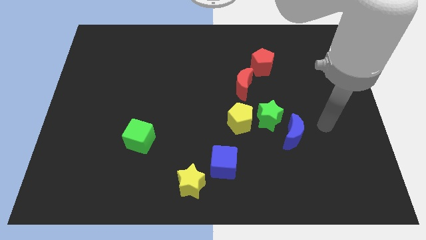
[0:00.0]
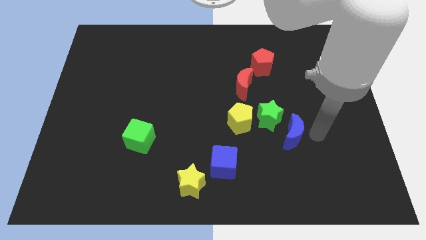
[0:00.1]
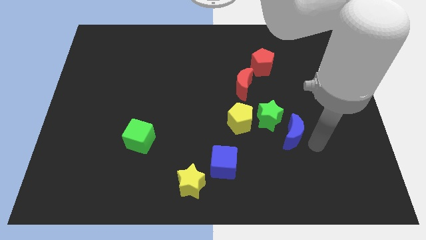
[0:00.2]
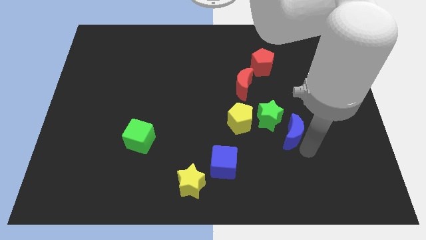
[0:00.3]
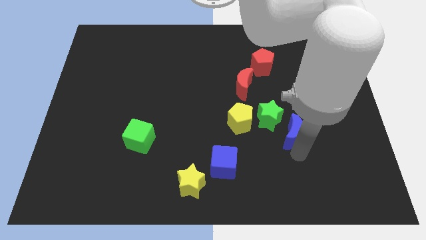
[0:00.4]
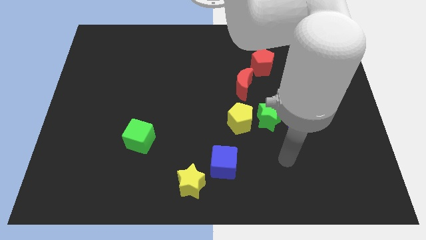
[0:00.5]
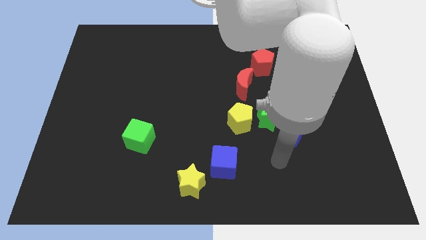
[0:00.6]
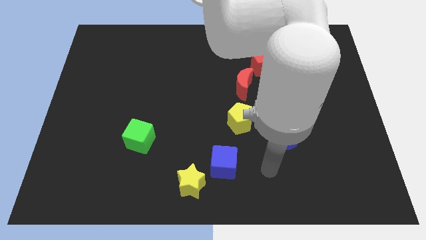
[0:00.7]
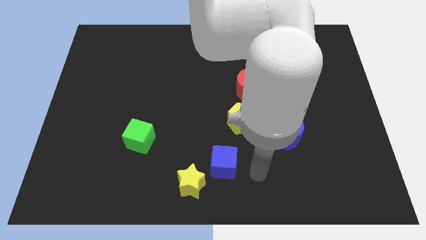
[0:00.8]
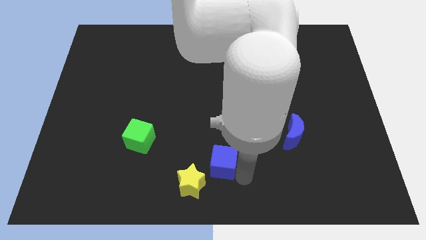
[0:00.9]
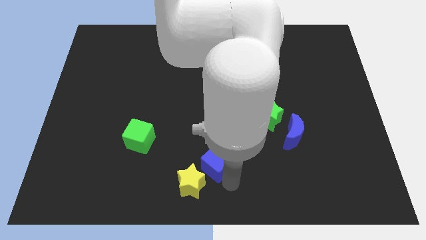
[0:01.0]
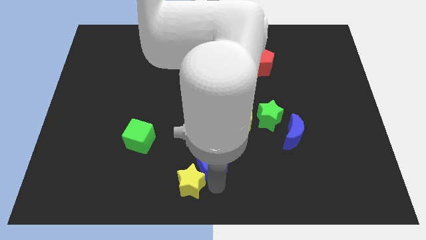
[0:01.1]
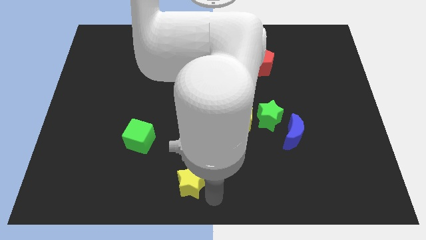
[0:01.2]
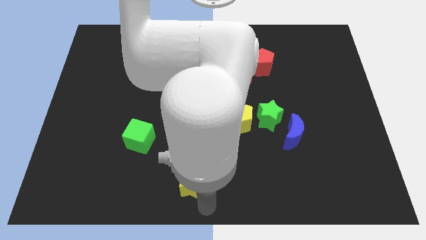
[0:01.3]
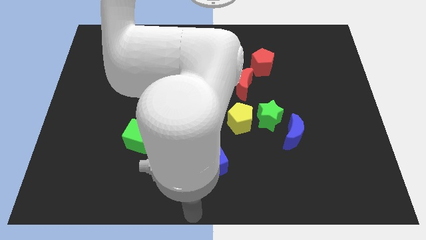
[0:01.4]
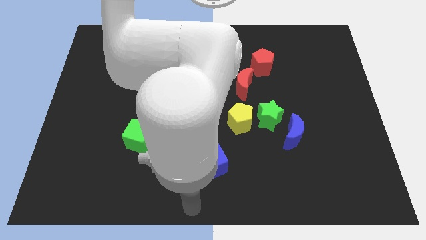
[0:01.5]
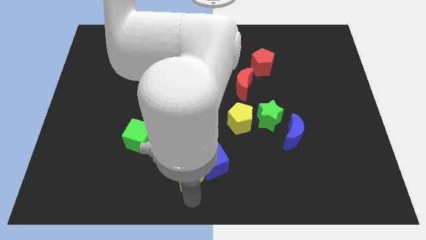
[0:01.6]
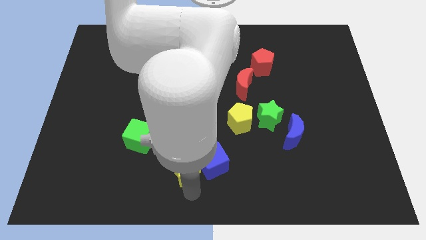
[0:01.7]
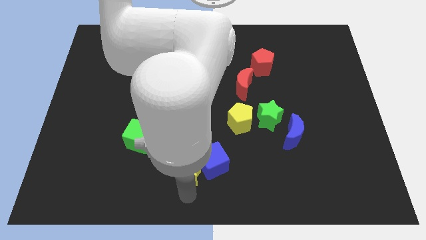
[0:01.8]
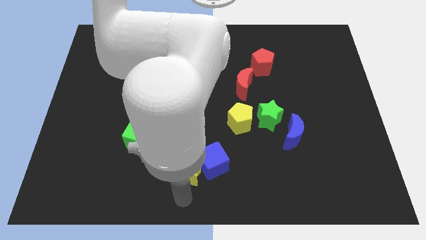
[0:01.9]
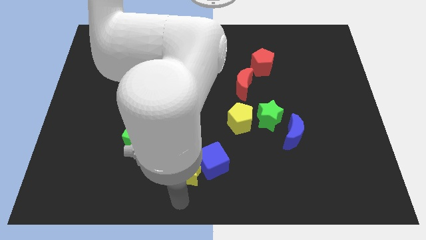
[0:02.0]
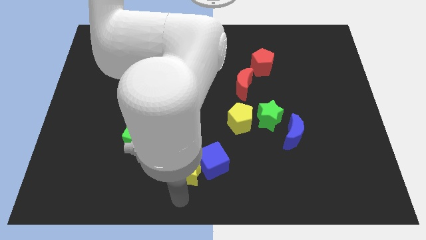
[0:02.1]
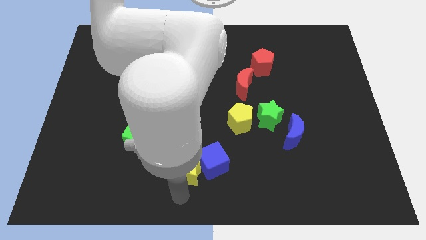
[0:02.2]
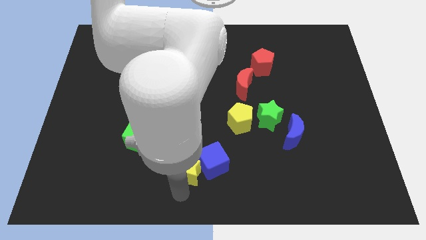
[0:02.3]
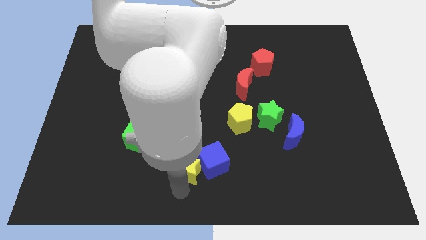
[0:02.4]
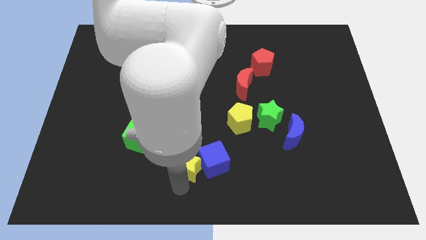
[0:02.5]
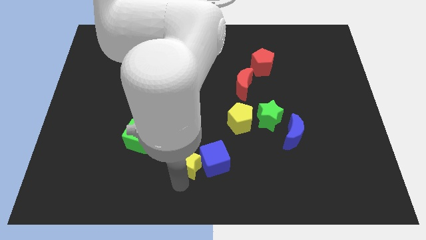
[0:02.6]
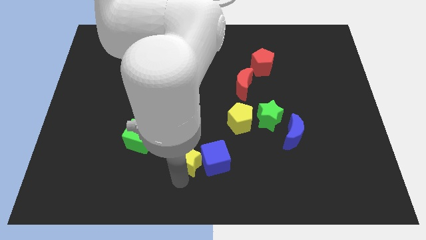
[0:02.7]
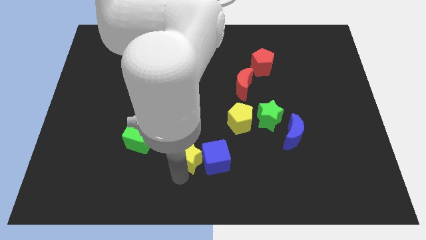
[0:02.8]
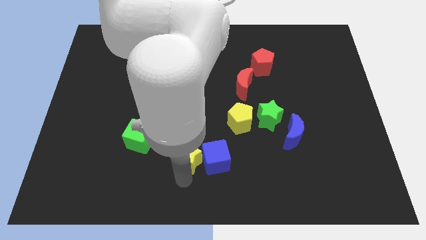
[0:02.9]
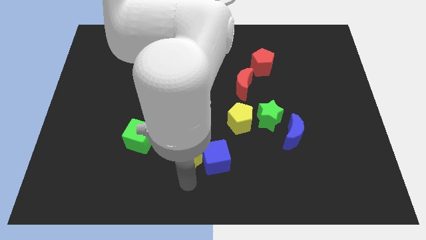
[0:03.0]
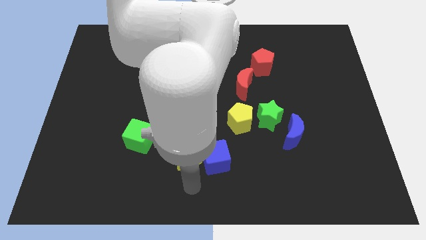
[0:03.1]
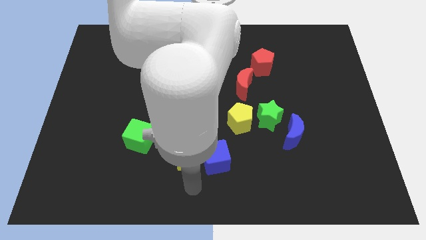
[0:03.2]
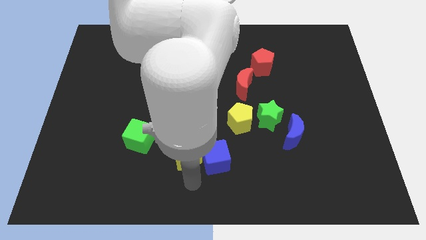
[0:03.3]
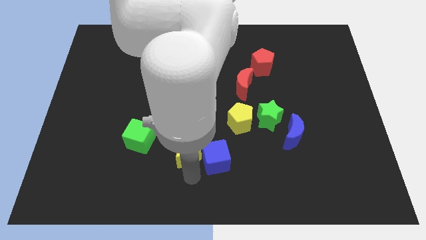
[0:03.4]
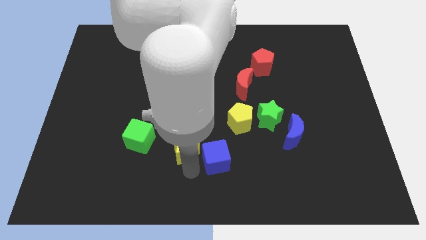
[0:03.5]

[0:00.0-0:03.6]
push the yellow star upwards a little

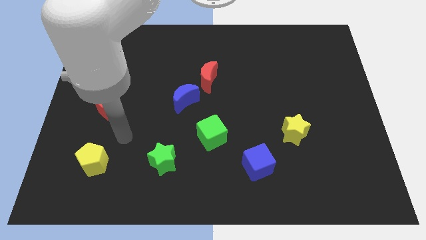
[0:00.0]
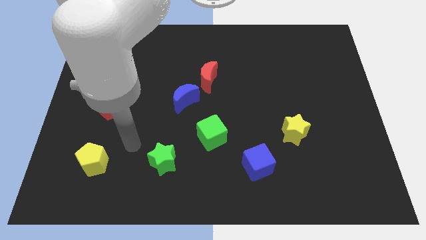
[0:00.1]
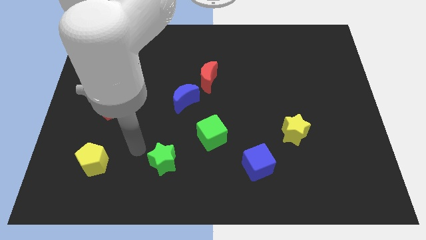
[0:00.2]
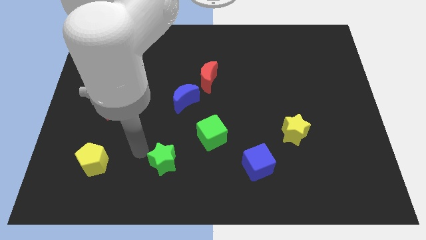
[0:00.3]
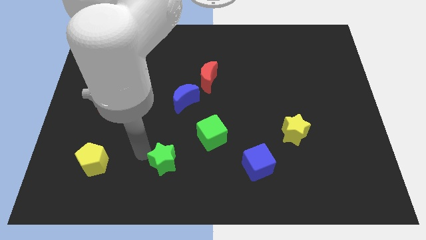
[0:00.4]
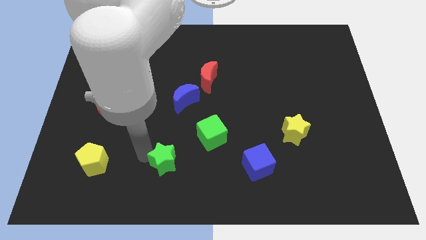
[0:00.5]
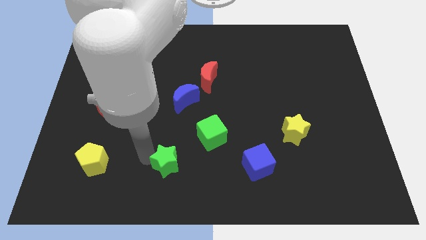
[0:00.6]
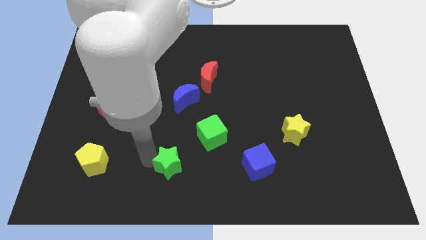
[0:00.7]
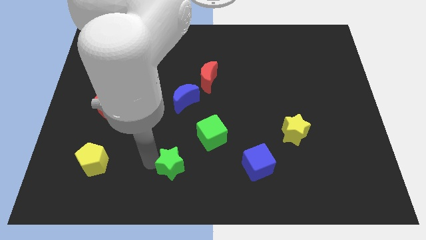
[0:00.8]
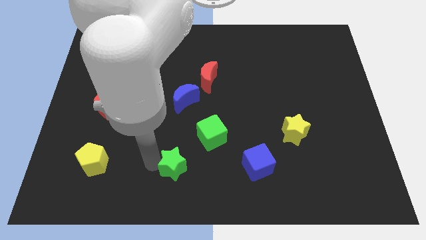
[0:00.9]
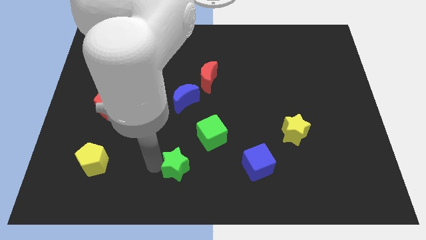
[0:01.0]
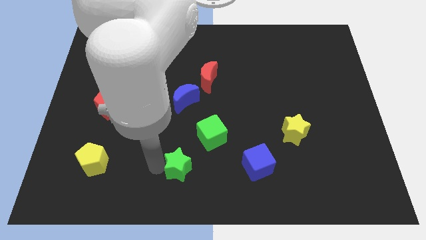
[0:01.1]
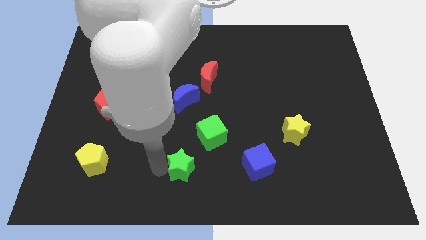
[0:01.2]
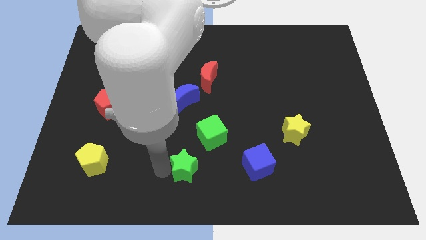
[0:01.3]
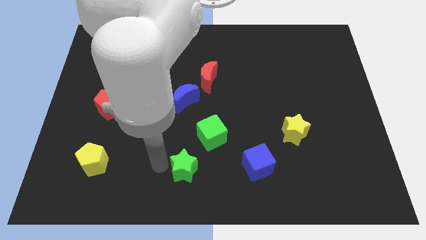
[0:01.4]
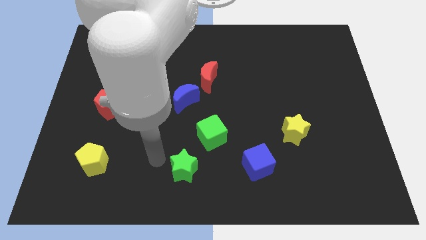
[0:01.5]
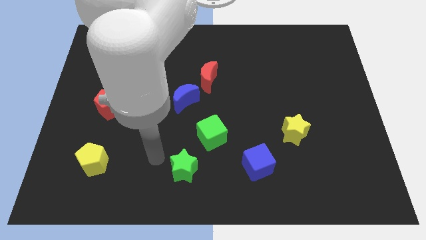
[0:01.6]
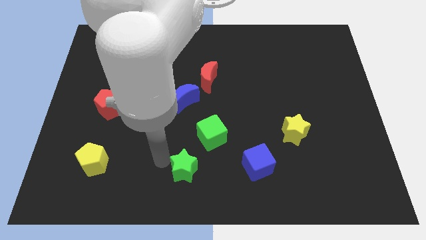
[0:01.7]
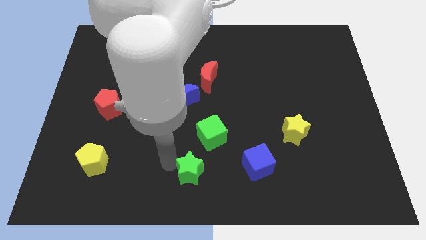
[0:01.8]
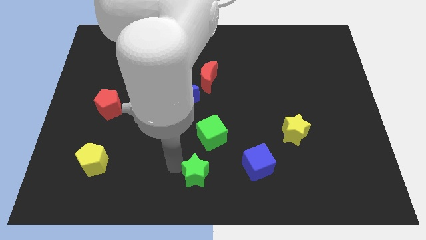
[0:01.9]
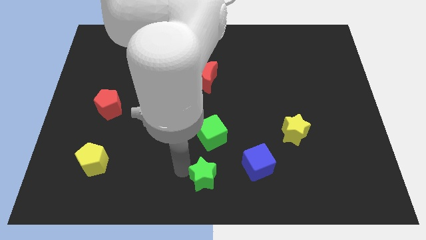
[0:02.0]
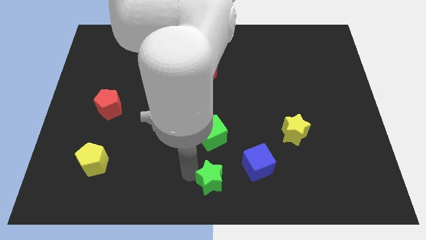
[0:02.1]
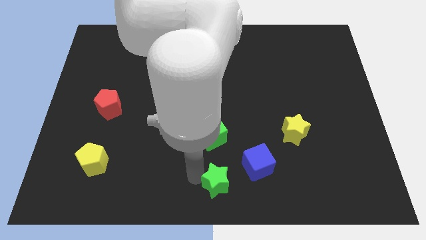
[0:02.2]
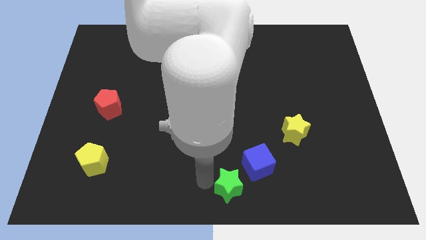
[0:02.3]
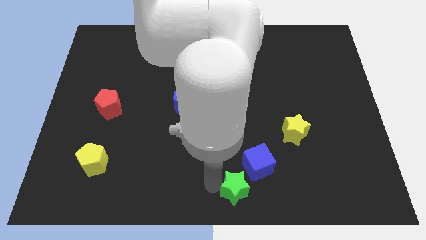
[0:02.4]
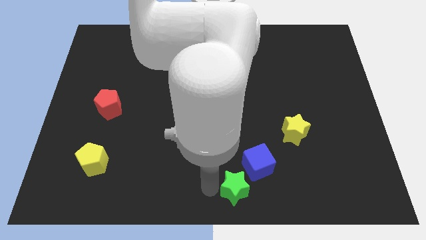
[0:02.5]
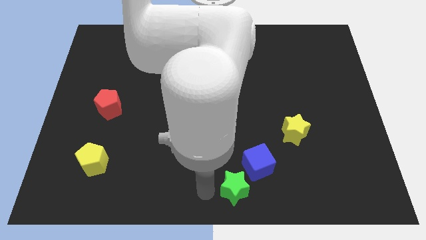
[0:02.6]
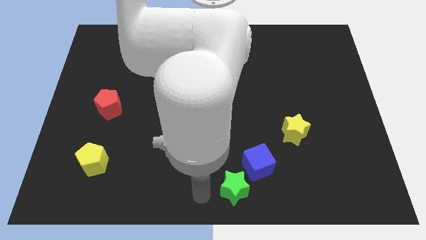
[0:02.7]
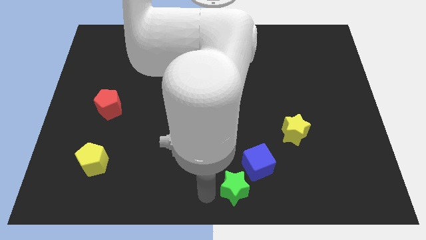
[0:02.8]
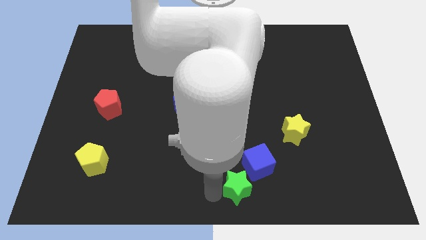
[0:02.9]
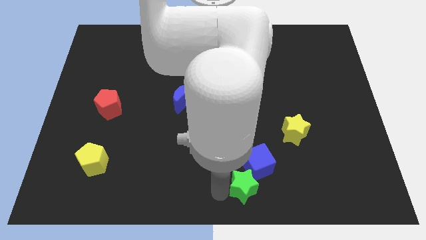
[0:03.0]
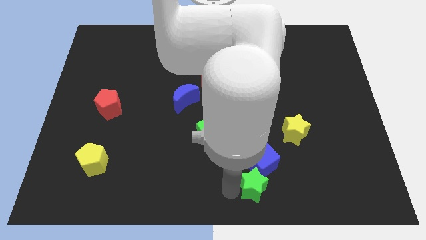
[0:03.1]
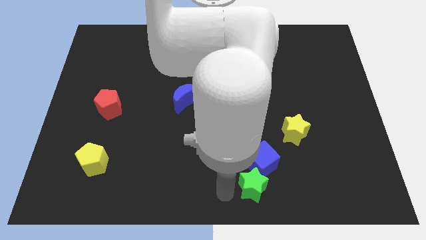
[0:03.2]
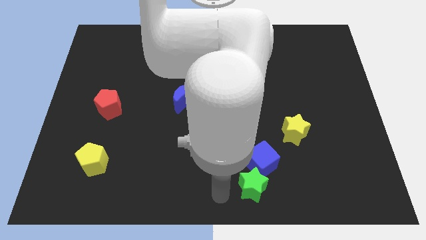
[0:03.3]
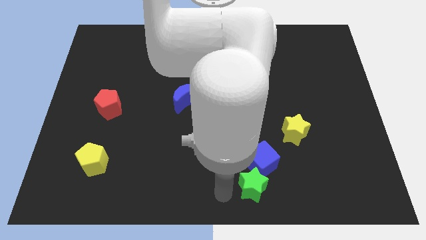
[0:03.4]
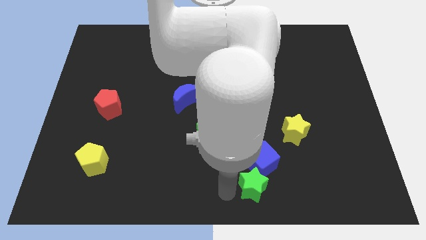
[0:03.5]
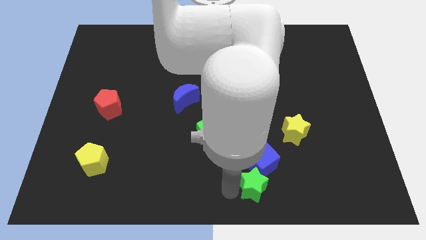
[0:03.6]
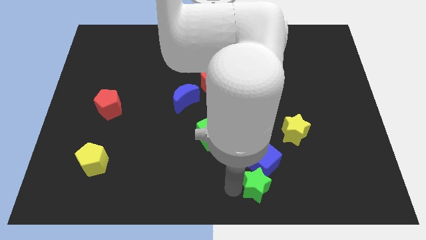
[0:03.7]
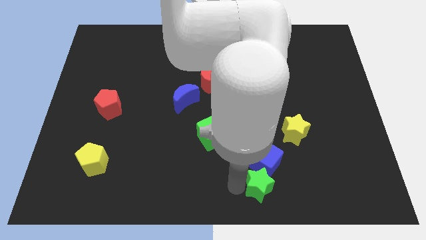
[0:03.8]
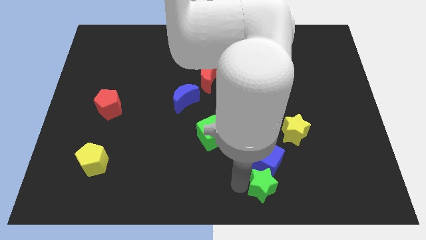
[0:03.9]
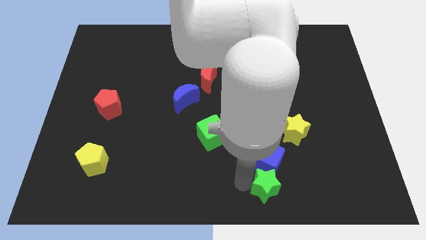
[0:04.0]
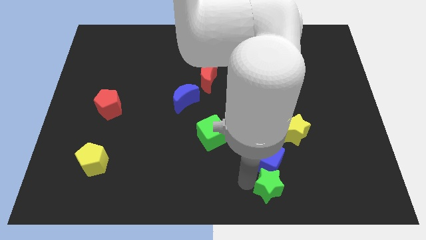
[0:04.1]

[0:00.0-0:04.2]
push the green star to the right

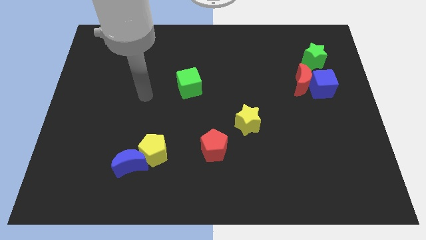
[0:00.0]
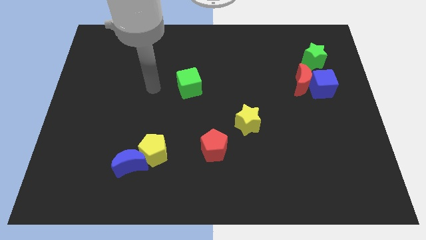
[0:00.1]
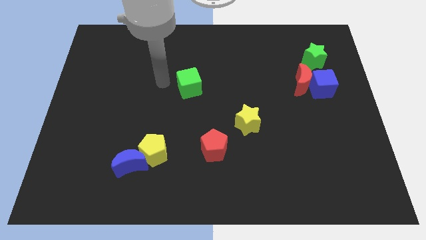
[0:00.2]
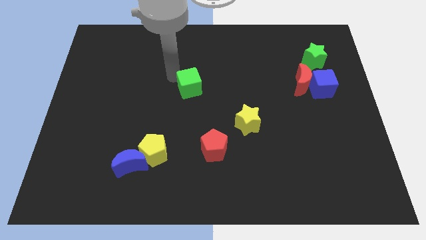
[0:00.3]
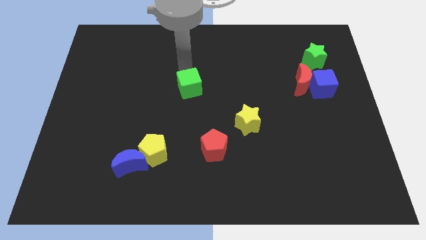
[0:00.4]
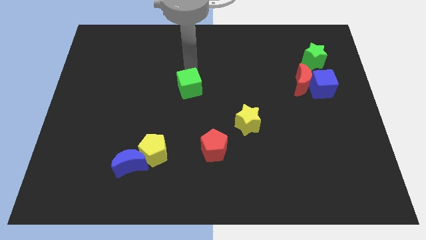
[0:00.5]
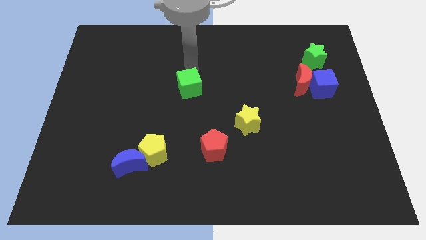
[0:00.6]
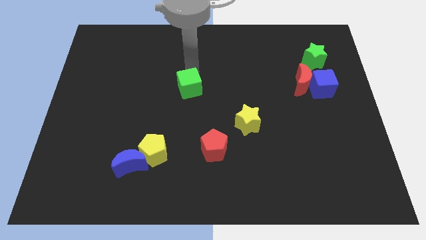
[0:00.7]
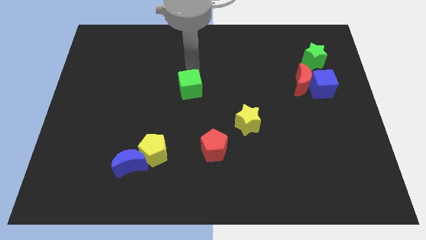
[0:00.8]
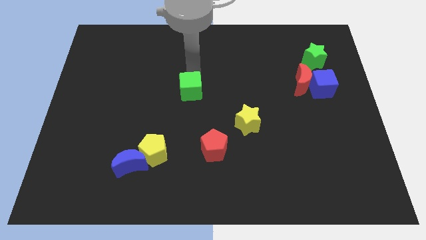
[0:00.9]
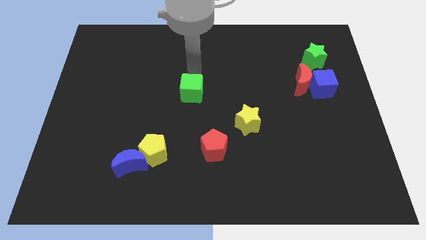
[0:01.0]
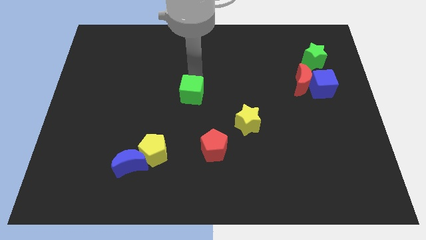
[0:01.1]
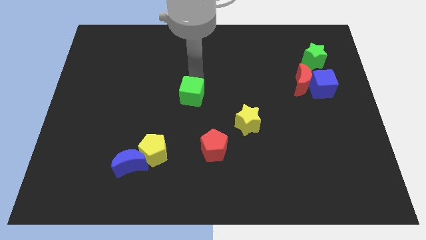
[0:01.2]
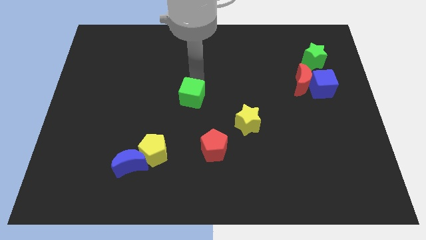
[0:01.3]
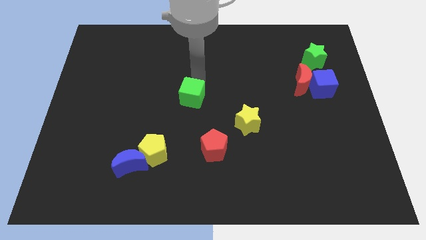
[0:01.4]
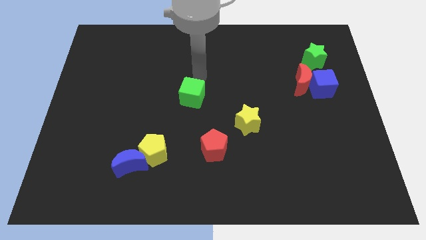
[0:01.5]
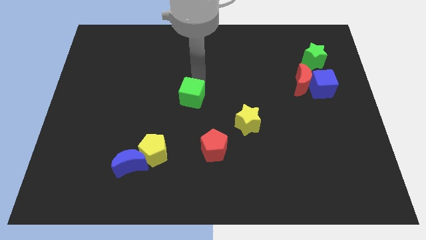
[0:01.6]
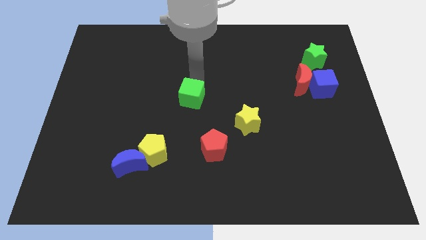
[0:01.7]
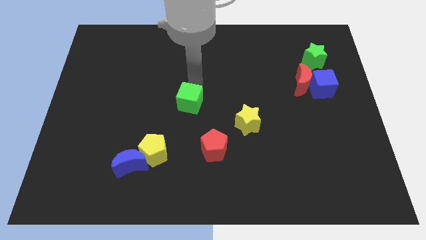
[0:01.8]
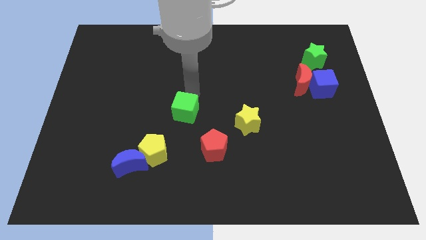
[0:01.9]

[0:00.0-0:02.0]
slightly push the green cube downwards
